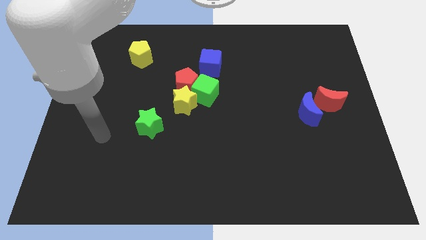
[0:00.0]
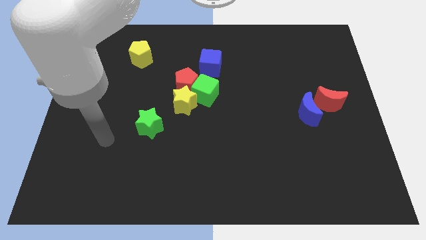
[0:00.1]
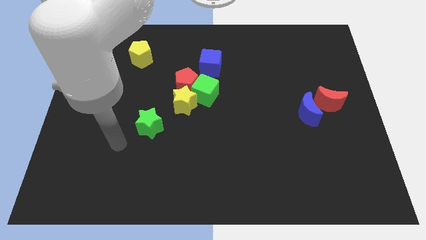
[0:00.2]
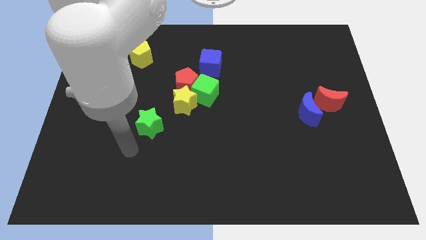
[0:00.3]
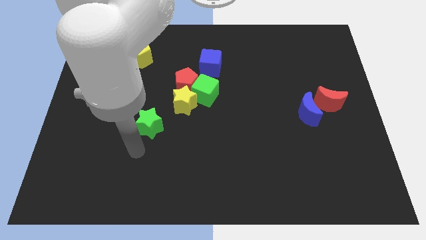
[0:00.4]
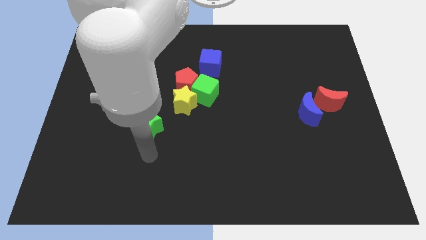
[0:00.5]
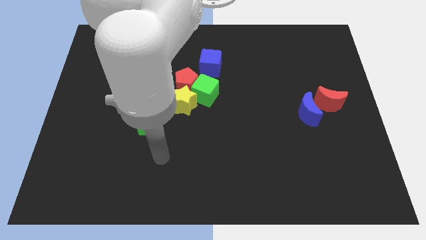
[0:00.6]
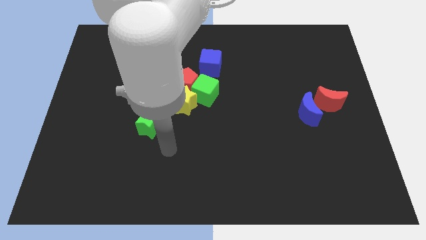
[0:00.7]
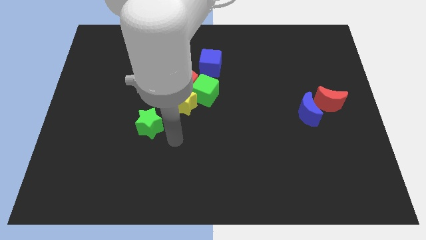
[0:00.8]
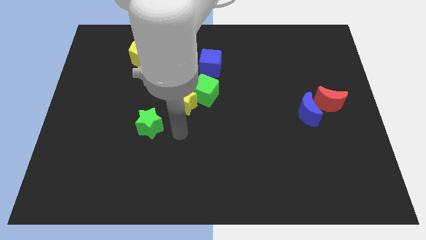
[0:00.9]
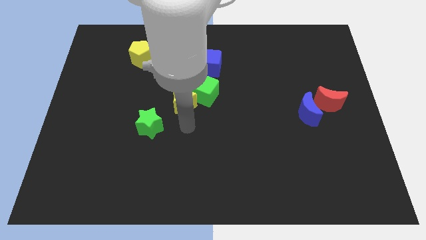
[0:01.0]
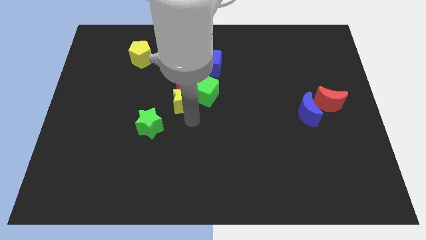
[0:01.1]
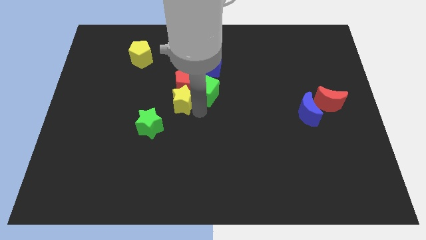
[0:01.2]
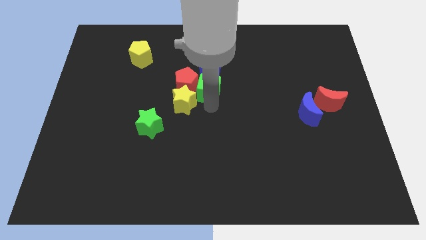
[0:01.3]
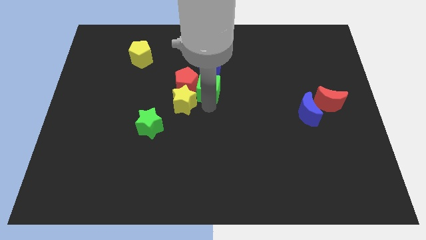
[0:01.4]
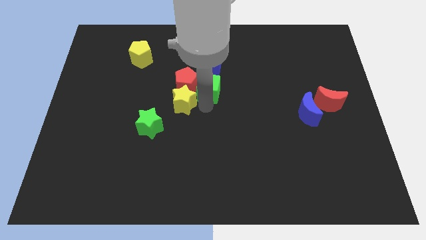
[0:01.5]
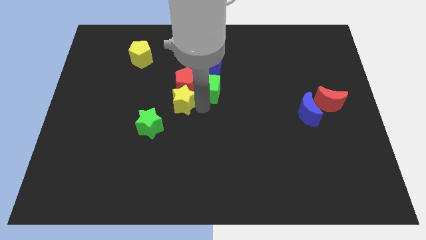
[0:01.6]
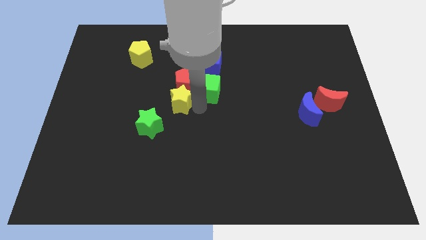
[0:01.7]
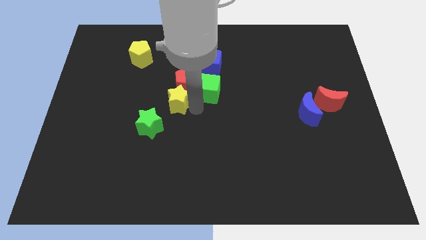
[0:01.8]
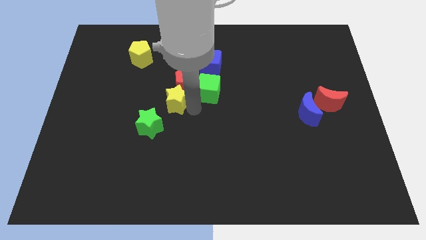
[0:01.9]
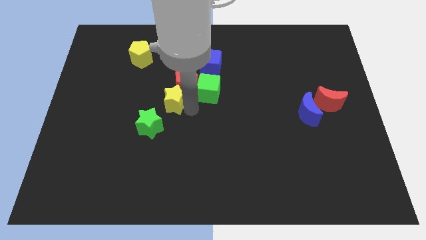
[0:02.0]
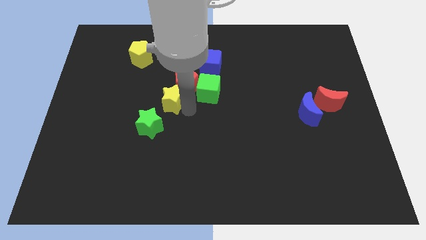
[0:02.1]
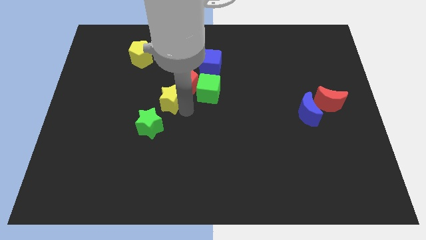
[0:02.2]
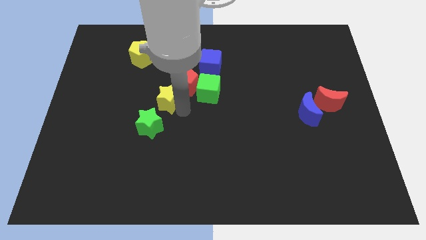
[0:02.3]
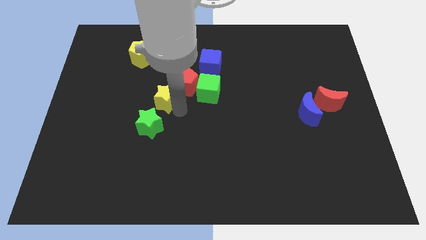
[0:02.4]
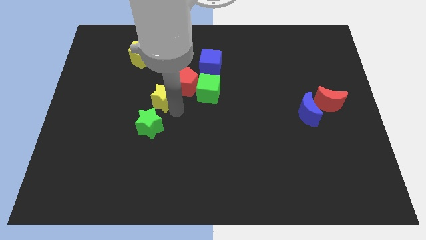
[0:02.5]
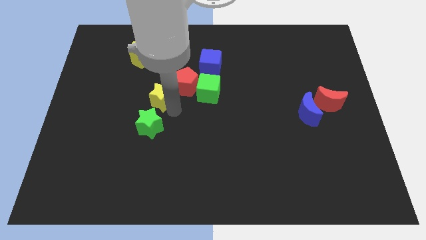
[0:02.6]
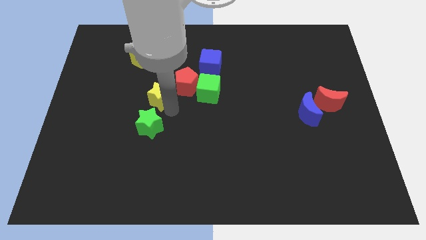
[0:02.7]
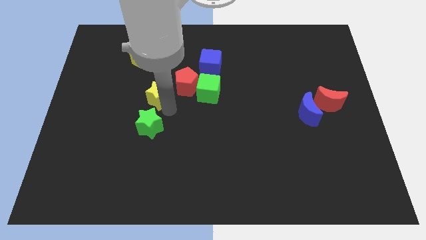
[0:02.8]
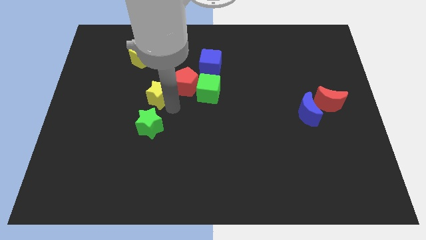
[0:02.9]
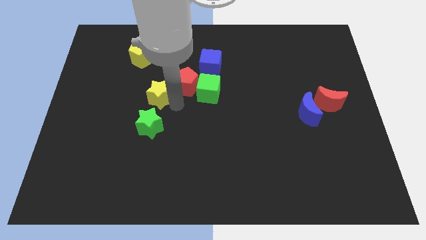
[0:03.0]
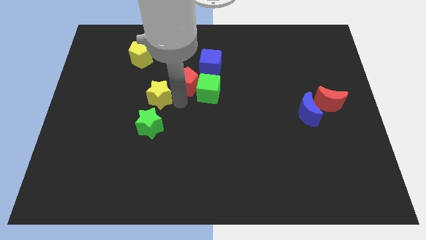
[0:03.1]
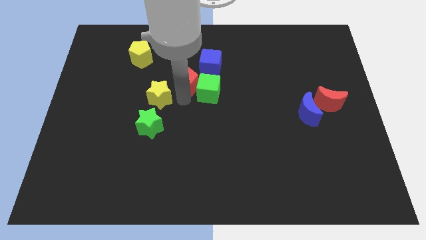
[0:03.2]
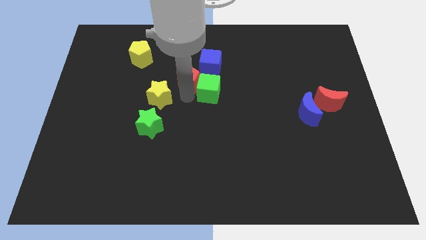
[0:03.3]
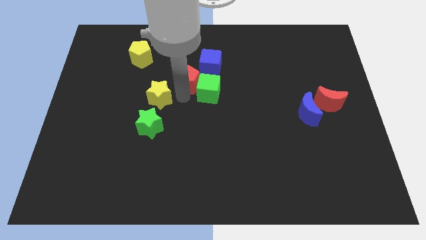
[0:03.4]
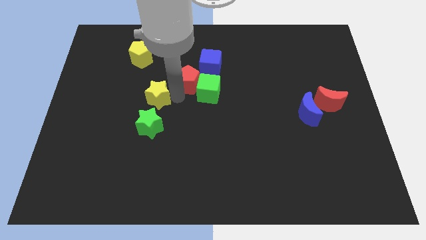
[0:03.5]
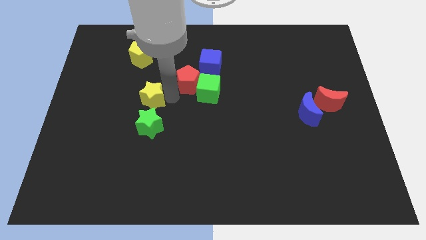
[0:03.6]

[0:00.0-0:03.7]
push the yellow star left a bit

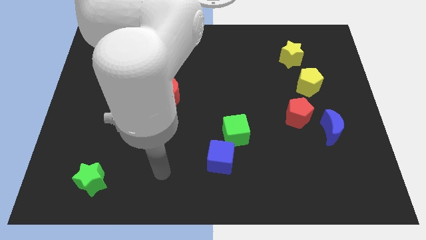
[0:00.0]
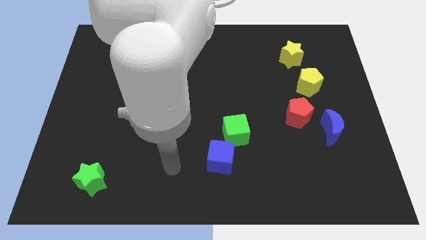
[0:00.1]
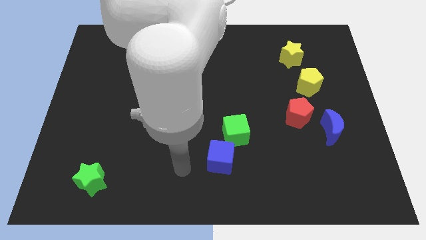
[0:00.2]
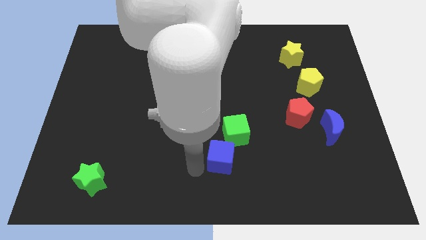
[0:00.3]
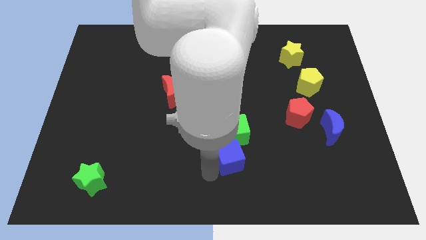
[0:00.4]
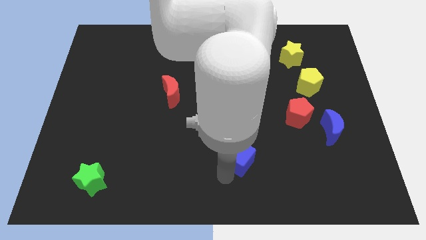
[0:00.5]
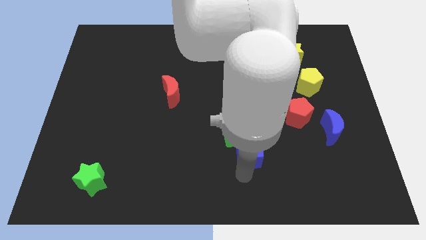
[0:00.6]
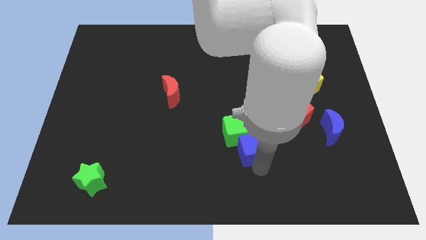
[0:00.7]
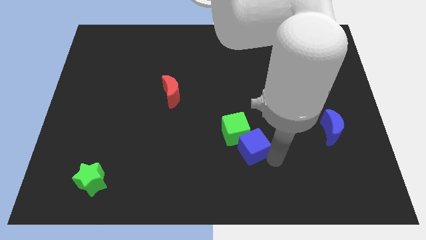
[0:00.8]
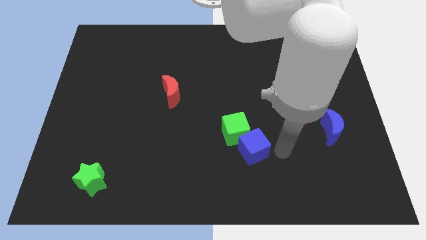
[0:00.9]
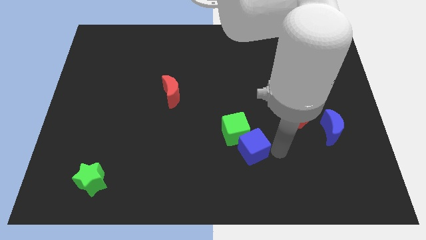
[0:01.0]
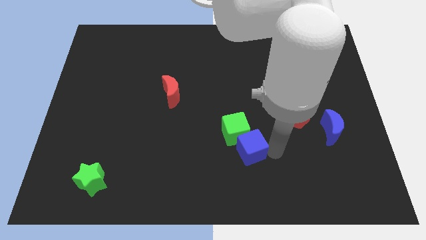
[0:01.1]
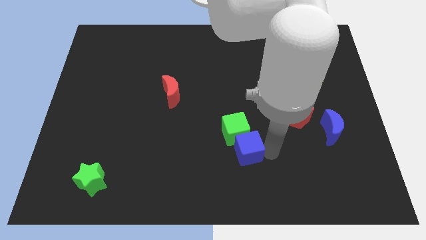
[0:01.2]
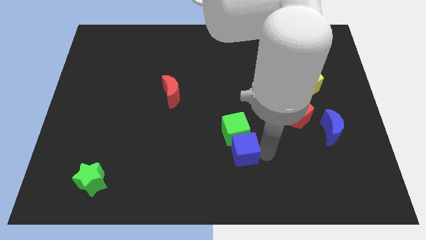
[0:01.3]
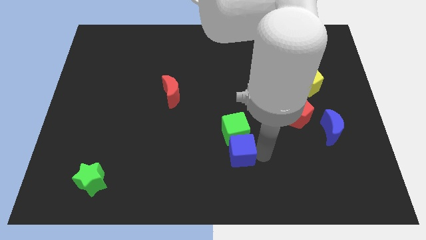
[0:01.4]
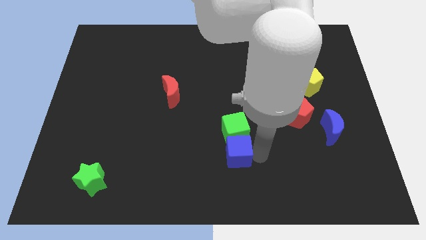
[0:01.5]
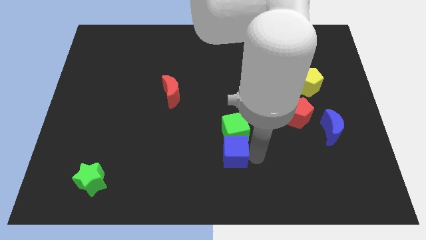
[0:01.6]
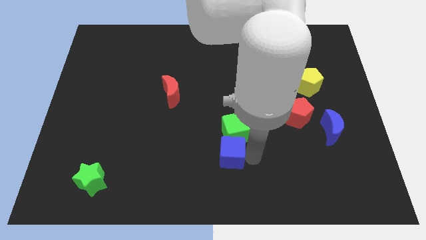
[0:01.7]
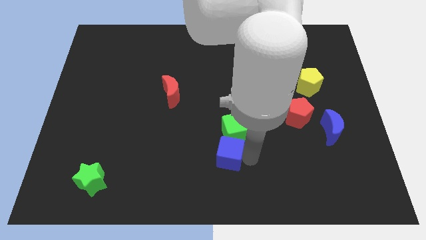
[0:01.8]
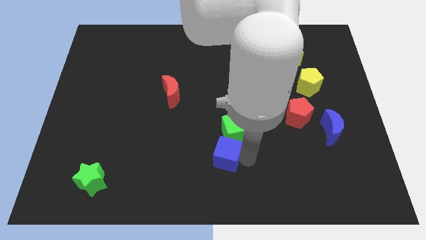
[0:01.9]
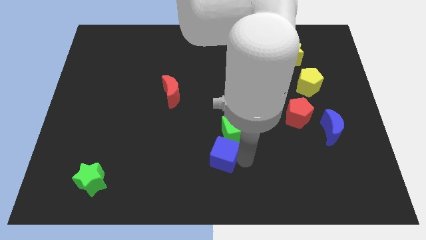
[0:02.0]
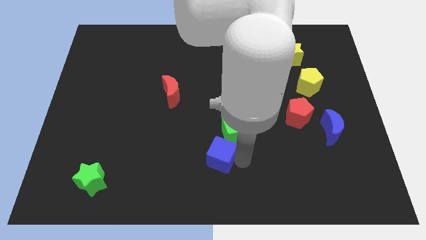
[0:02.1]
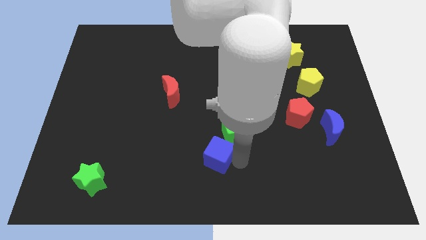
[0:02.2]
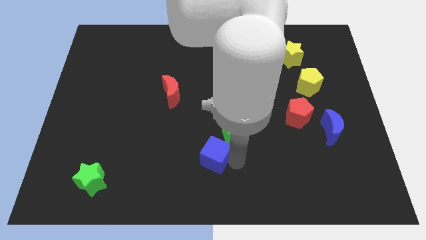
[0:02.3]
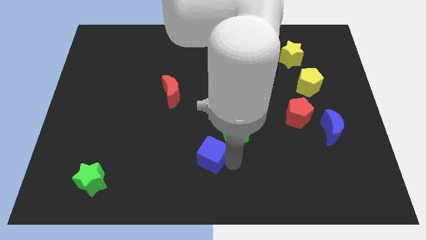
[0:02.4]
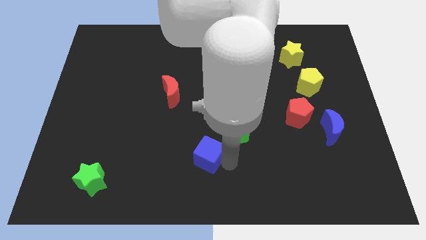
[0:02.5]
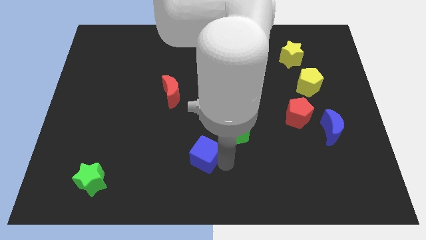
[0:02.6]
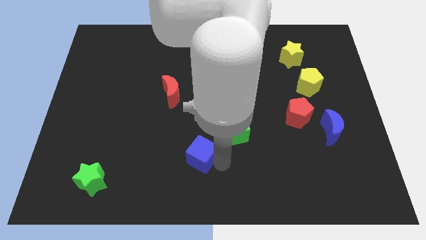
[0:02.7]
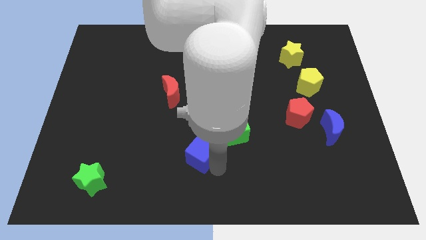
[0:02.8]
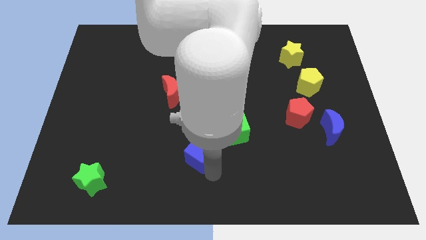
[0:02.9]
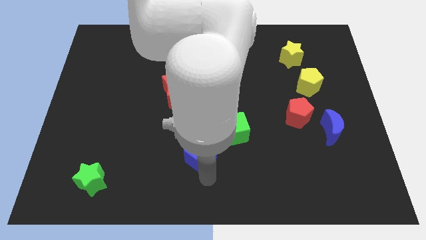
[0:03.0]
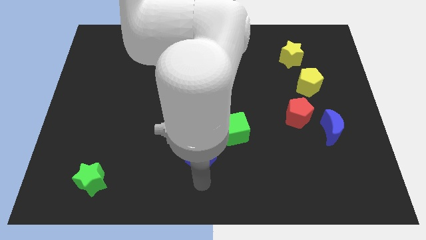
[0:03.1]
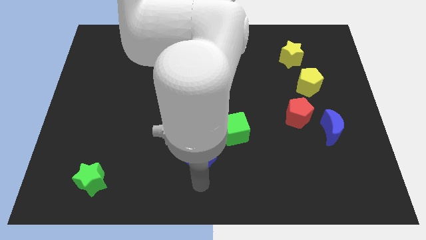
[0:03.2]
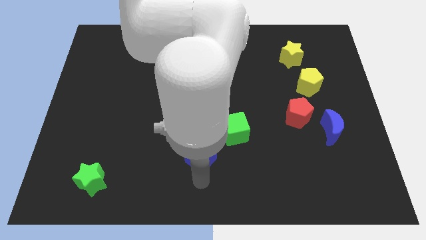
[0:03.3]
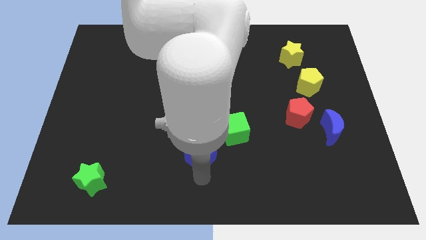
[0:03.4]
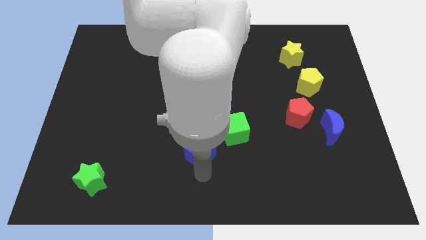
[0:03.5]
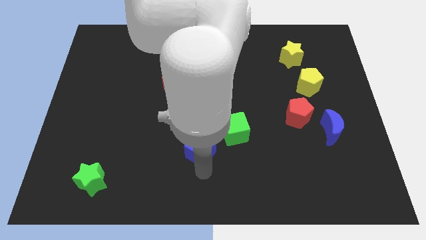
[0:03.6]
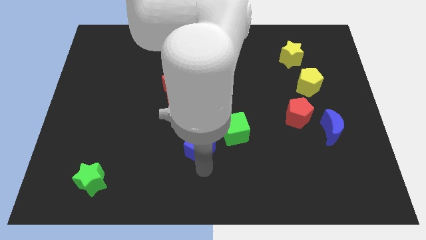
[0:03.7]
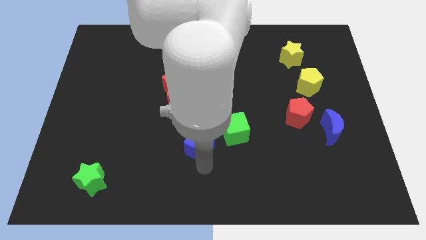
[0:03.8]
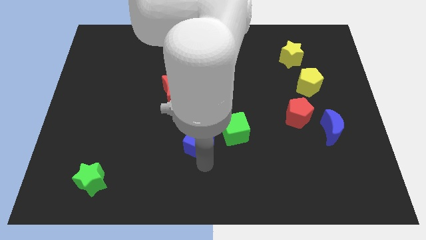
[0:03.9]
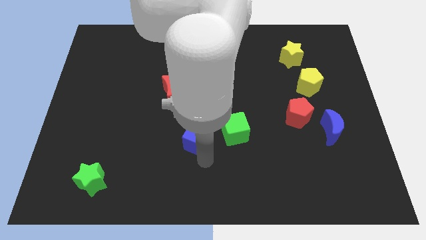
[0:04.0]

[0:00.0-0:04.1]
slightly move the blue cube upwards and then left

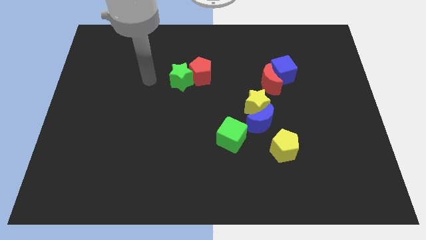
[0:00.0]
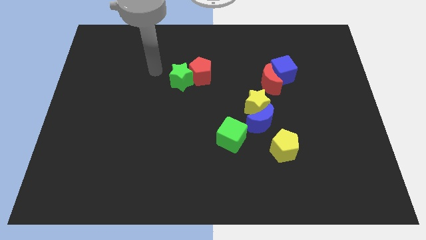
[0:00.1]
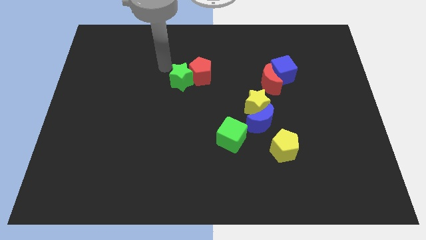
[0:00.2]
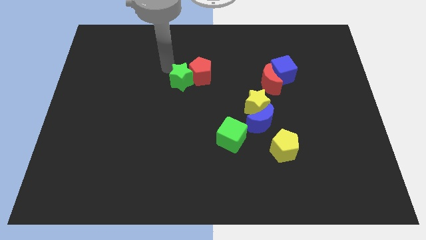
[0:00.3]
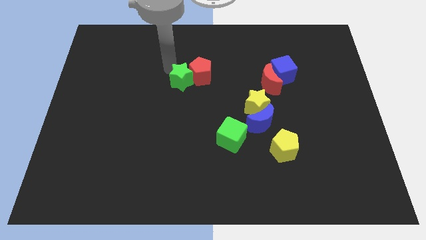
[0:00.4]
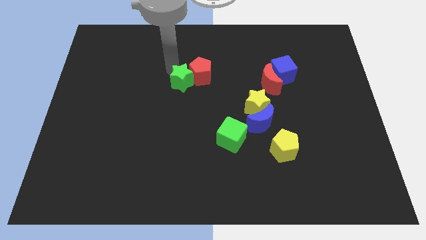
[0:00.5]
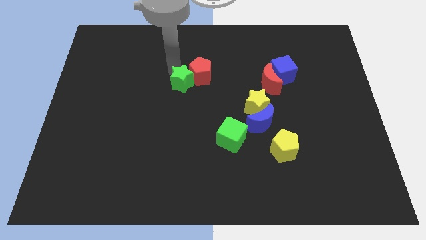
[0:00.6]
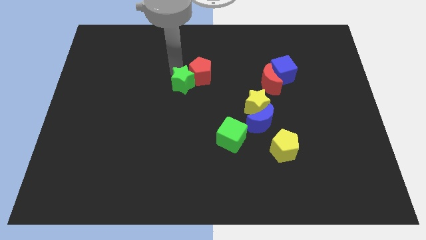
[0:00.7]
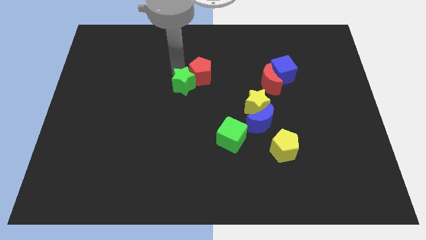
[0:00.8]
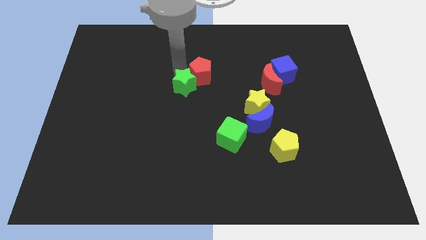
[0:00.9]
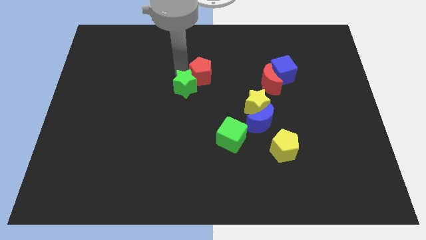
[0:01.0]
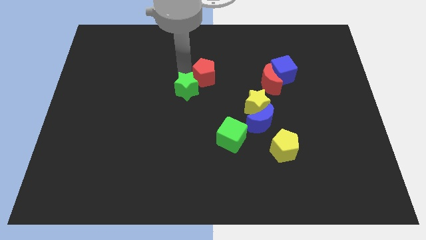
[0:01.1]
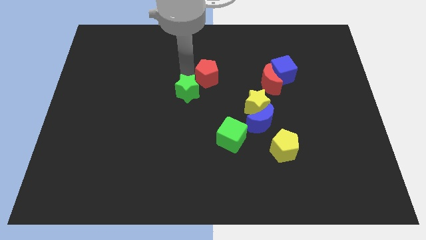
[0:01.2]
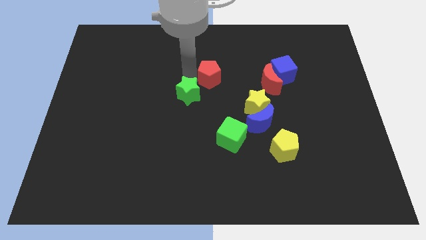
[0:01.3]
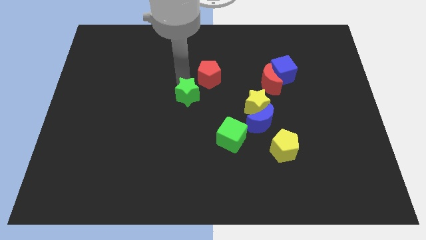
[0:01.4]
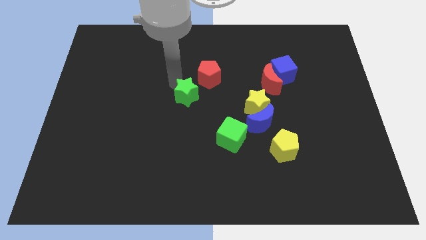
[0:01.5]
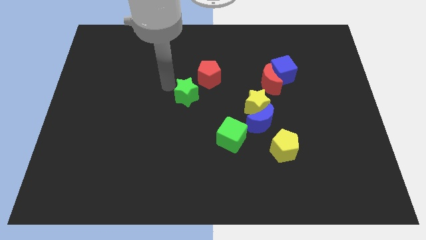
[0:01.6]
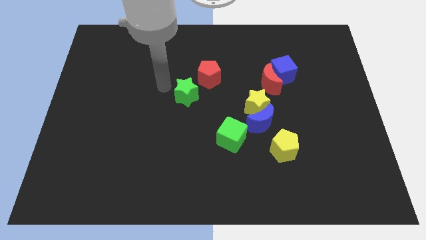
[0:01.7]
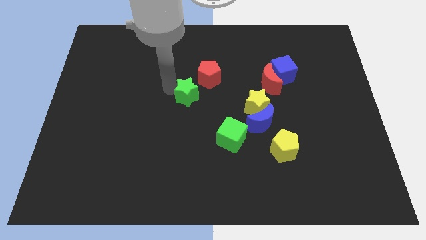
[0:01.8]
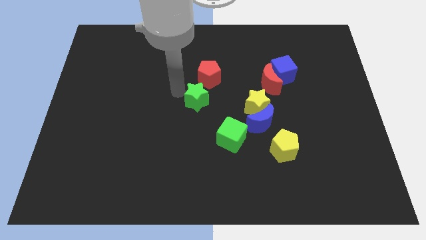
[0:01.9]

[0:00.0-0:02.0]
move the green star a little bit diagonally down and to the right
